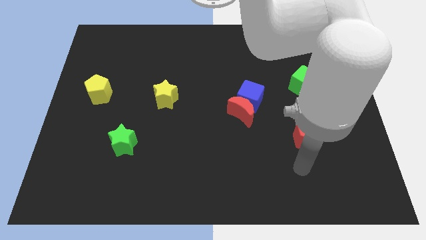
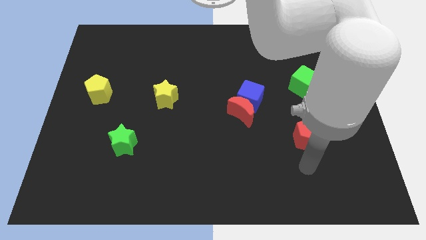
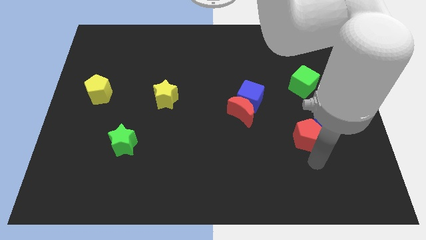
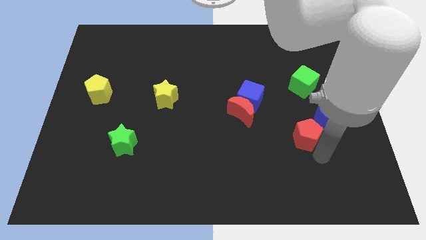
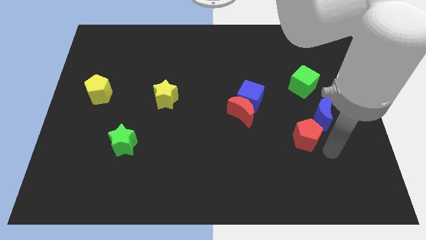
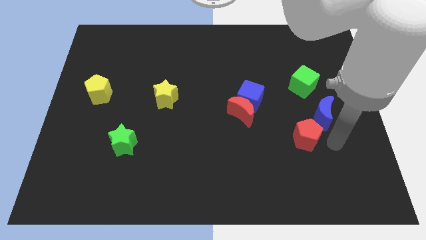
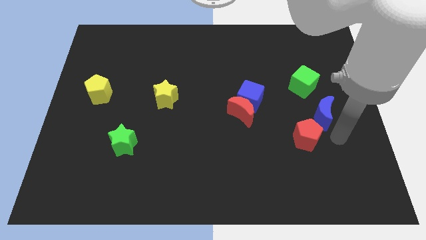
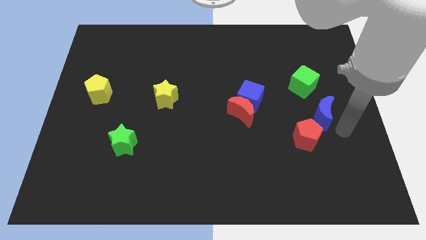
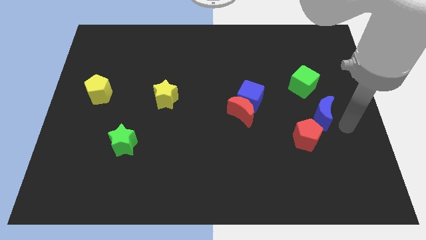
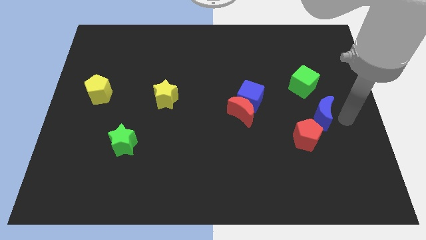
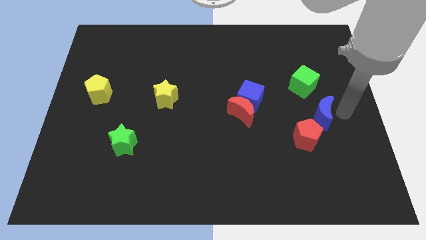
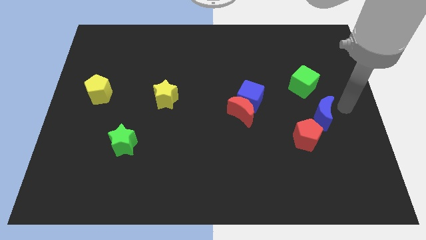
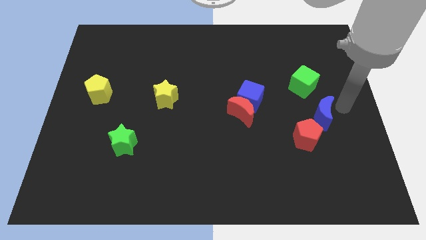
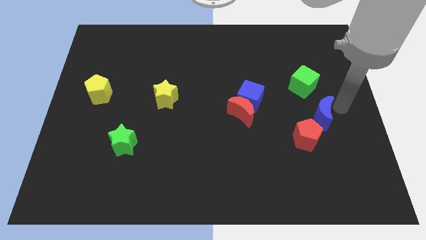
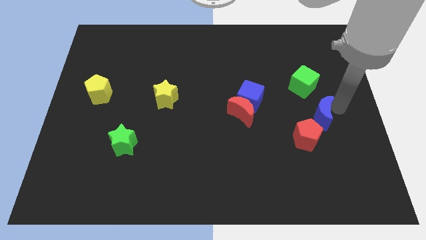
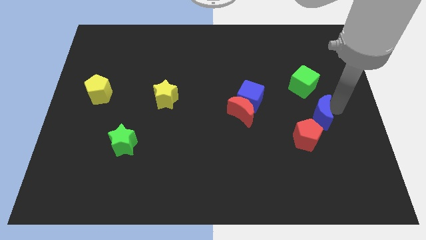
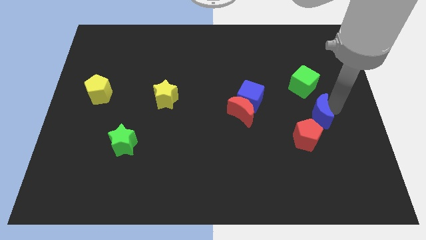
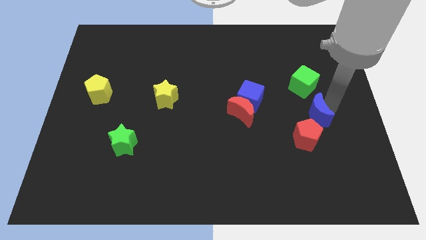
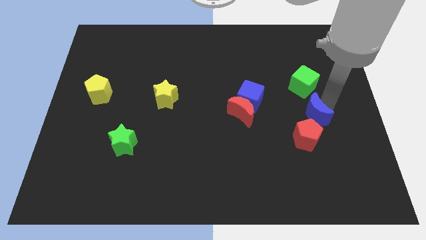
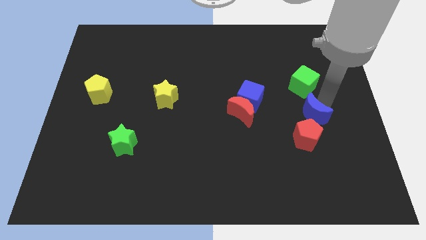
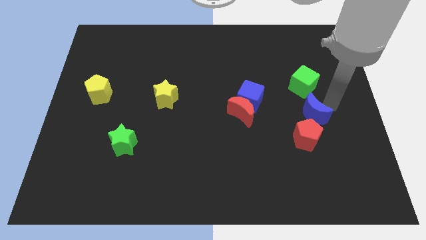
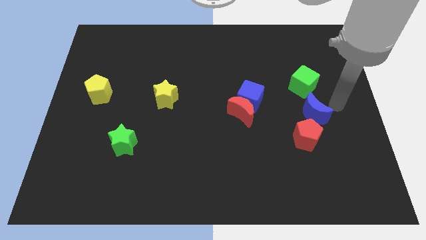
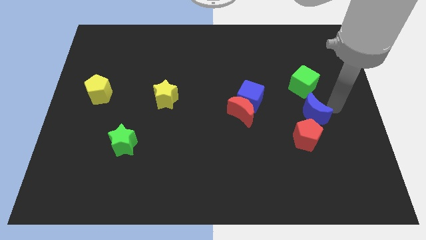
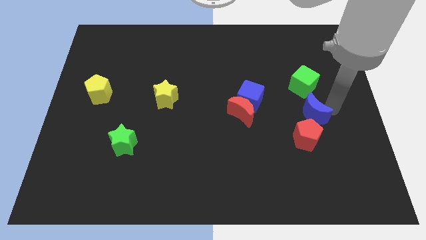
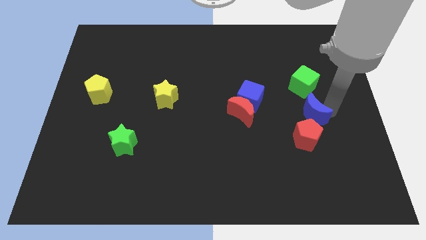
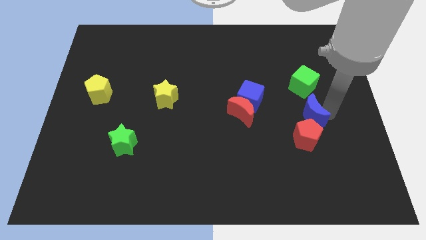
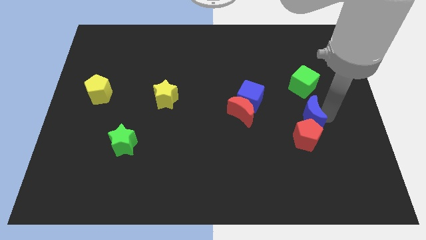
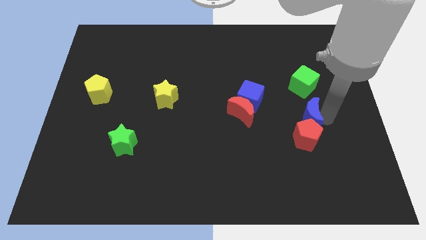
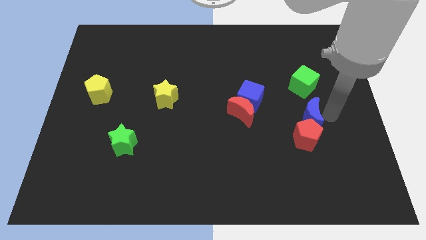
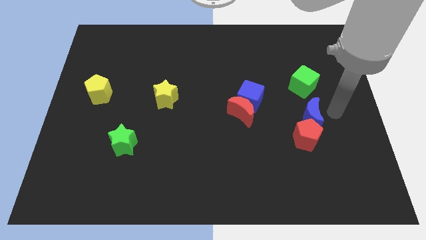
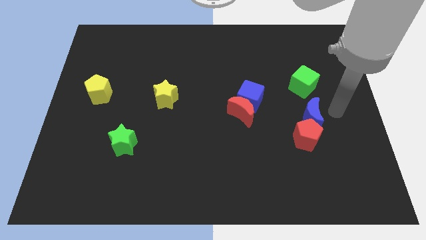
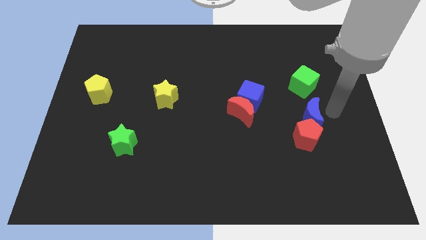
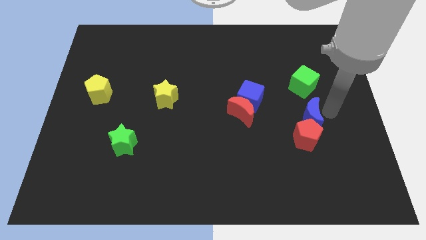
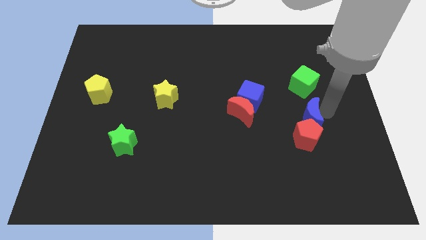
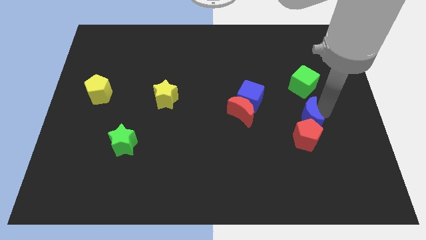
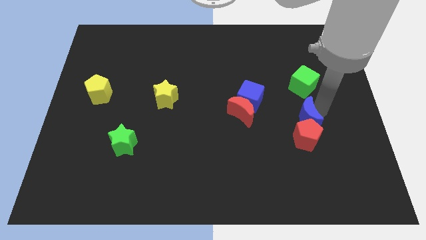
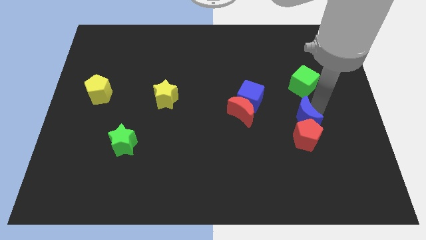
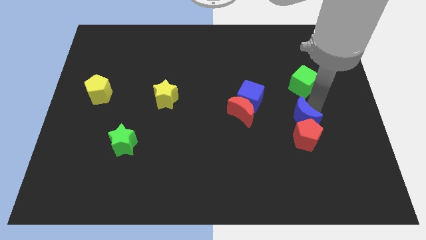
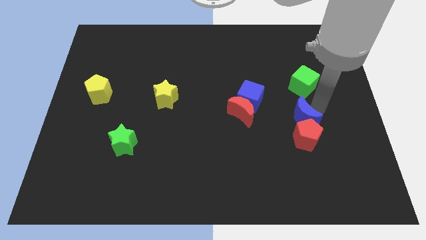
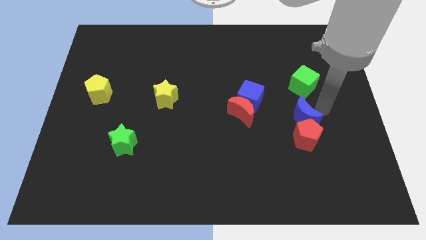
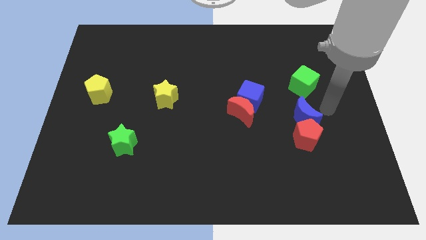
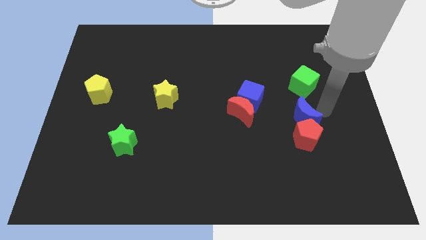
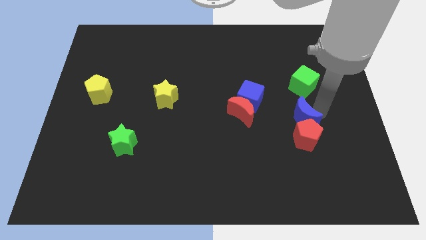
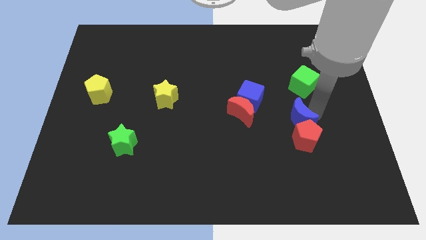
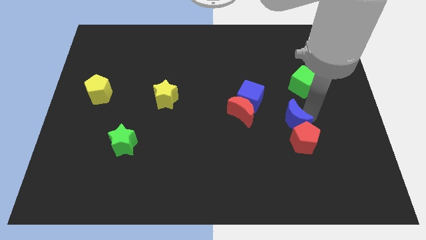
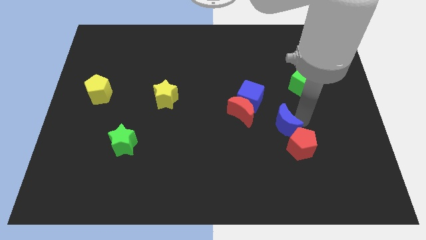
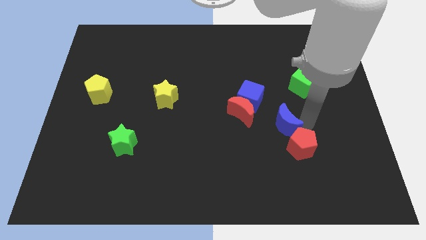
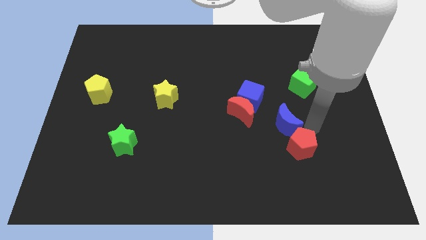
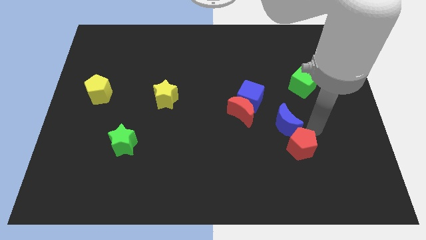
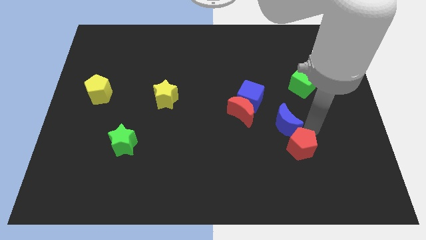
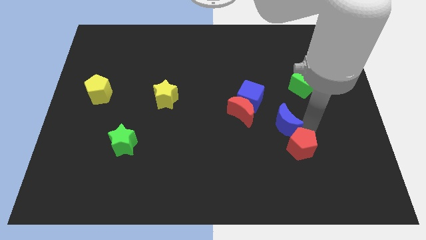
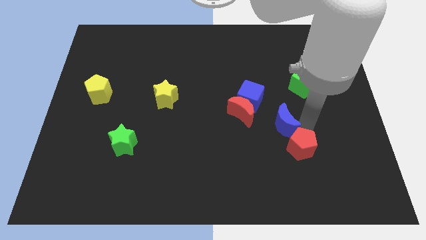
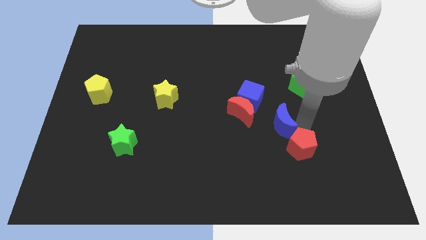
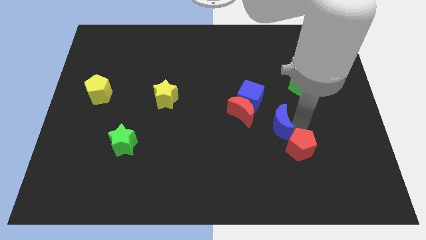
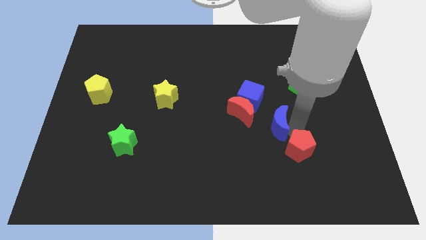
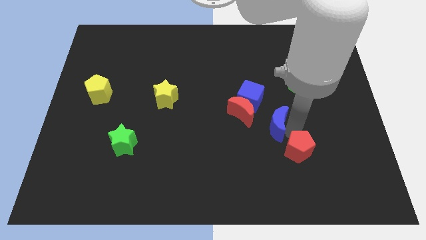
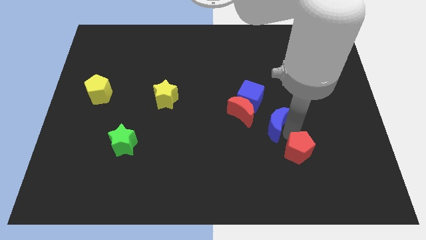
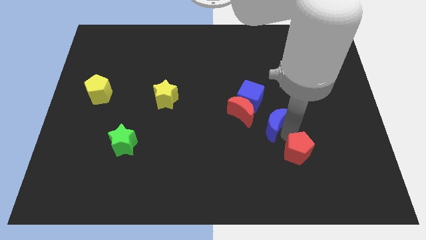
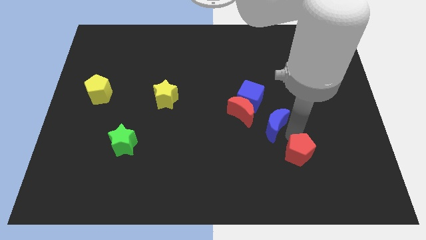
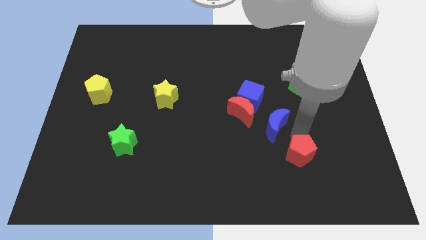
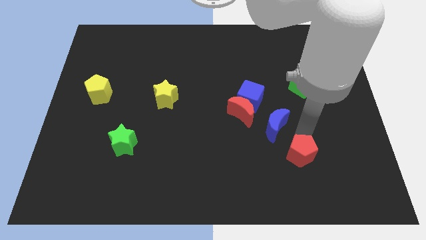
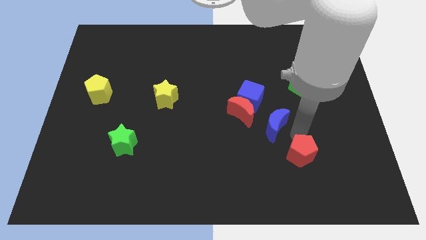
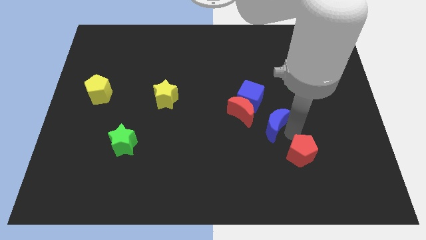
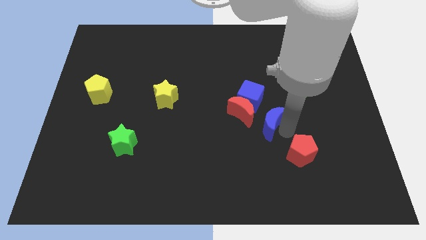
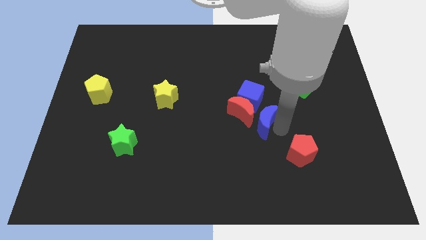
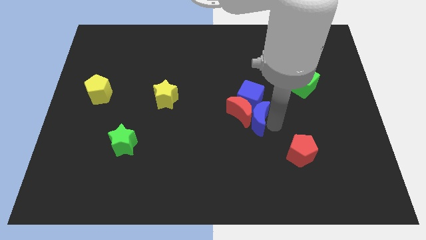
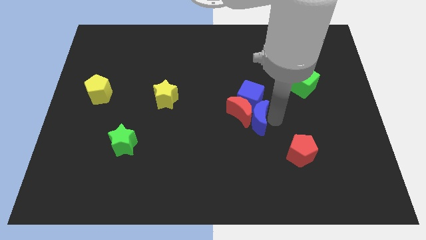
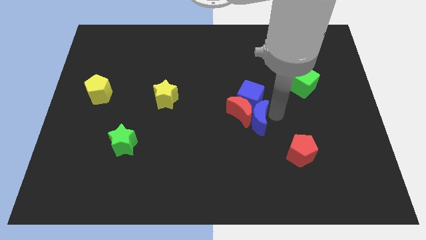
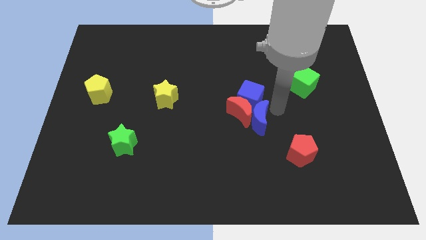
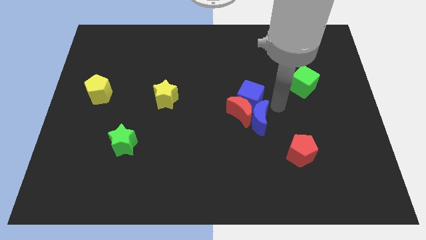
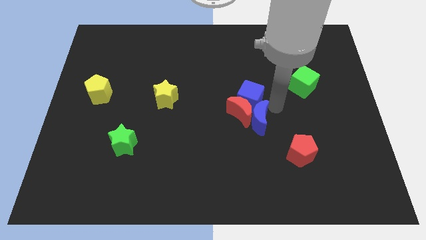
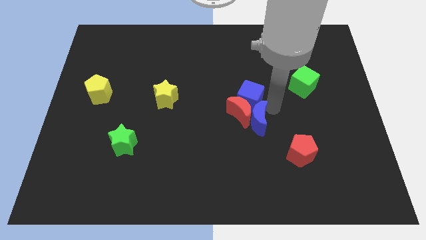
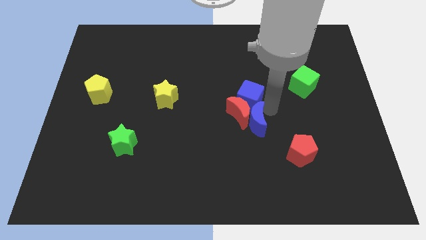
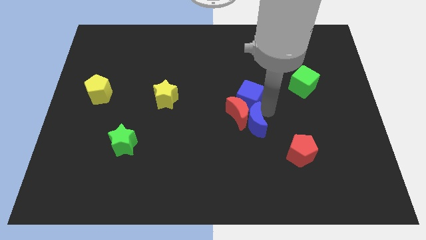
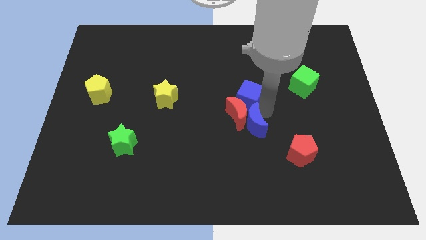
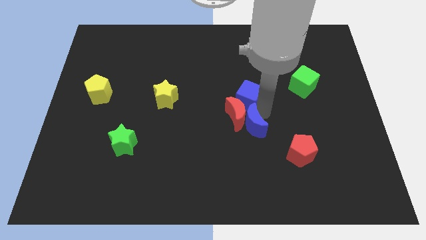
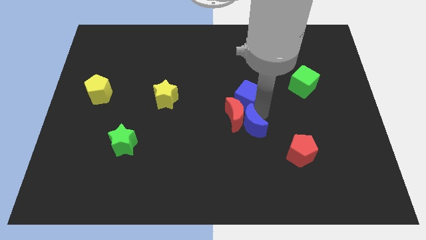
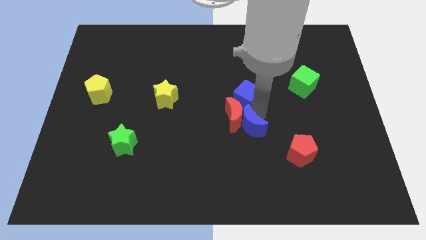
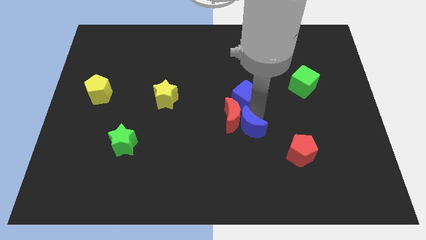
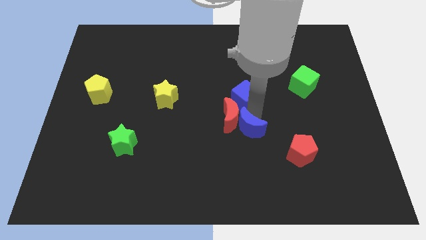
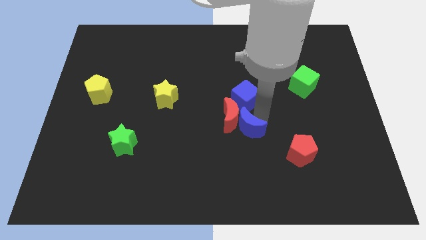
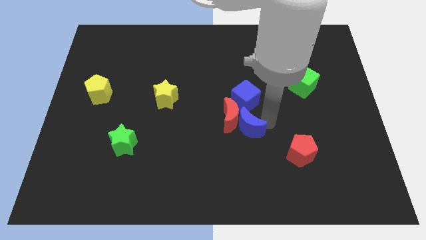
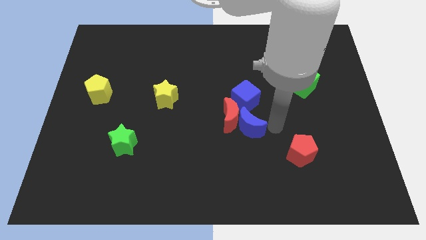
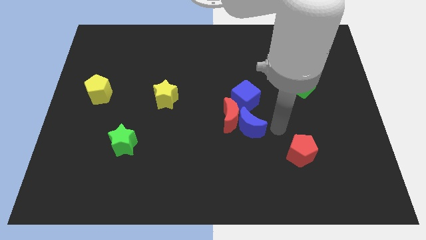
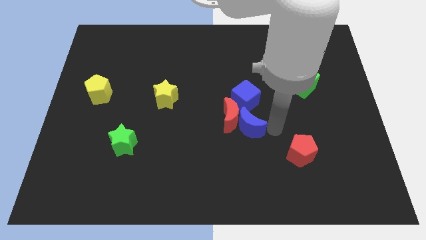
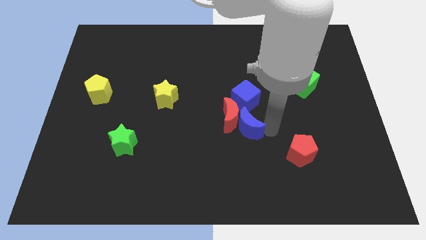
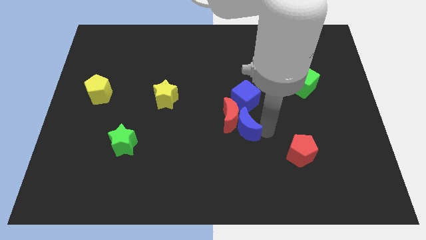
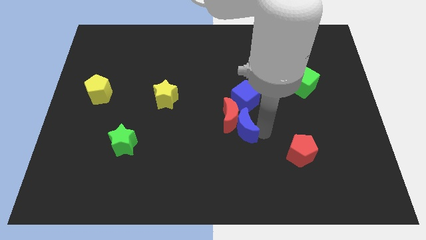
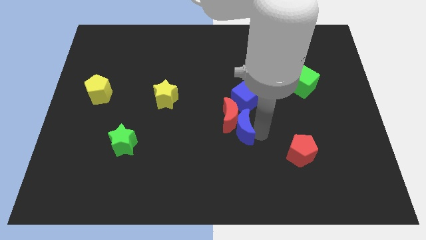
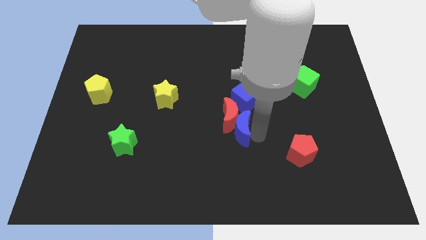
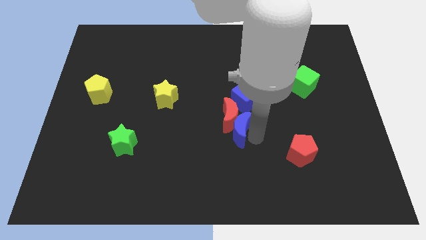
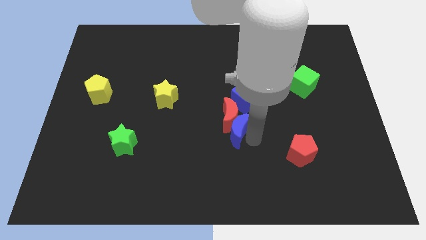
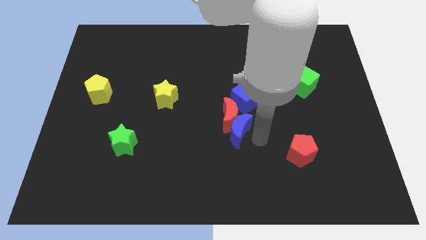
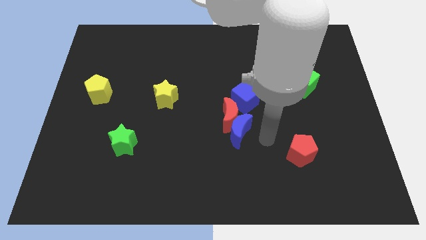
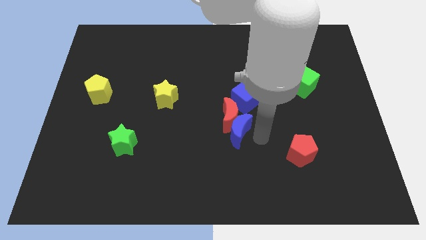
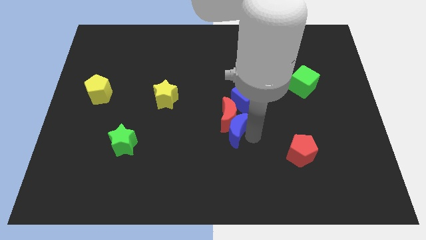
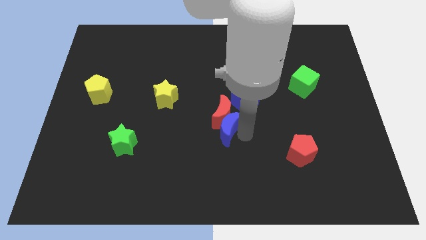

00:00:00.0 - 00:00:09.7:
slide the blue moon left
